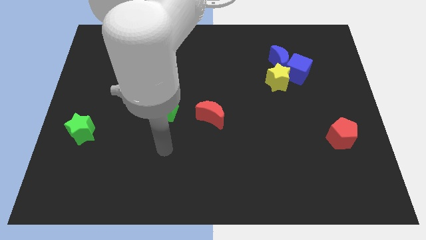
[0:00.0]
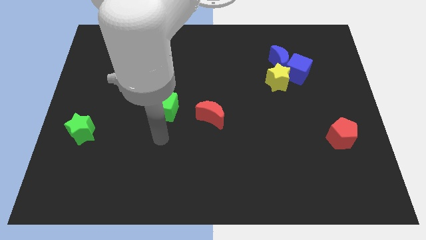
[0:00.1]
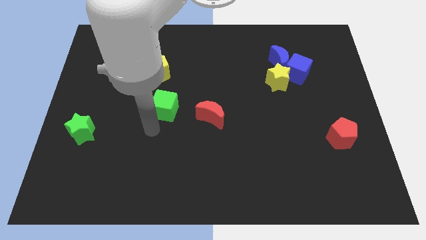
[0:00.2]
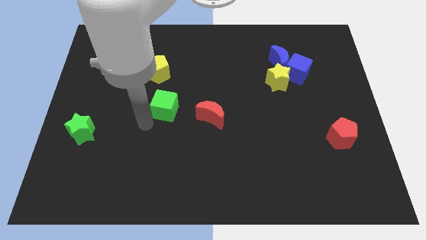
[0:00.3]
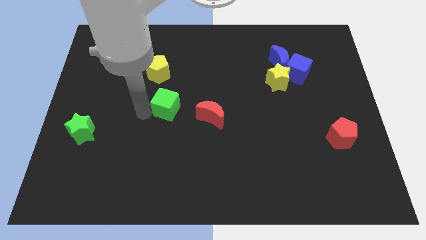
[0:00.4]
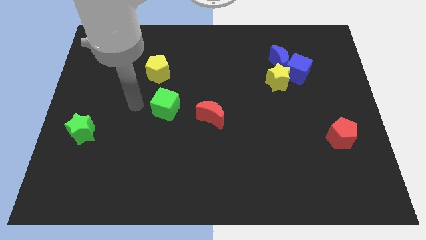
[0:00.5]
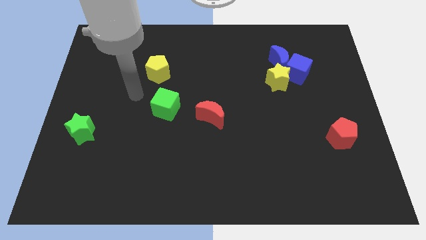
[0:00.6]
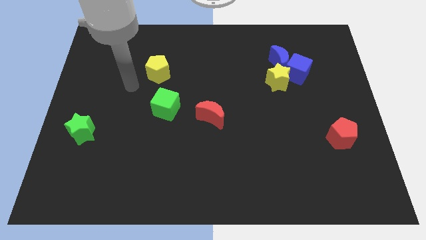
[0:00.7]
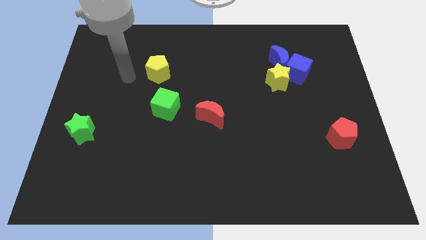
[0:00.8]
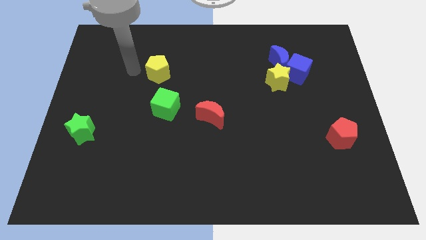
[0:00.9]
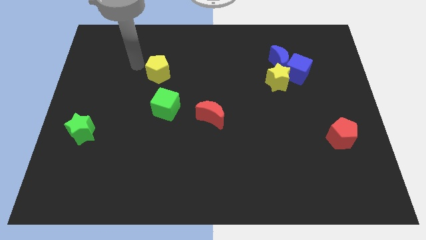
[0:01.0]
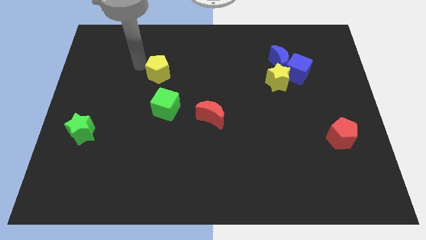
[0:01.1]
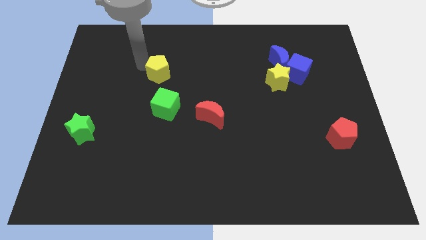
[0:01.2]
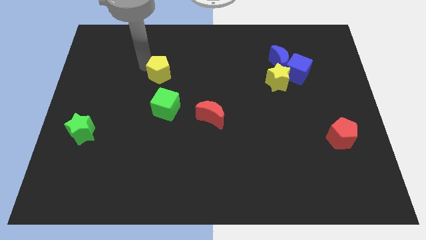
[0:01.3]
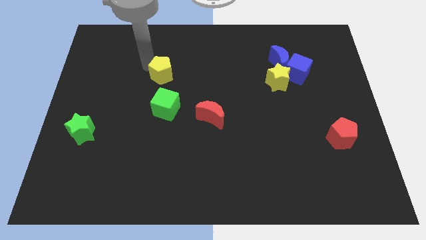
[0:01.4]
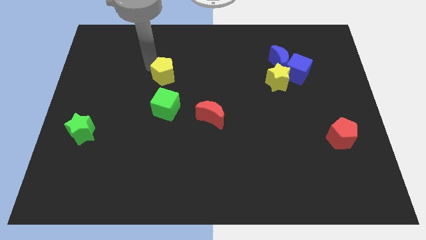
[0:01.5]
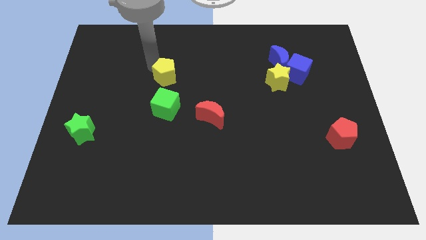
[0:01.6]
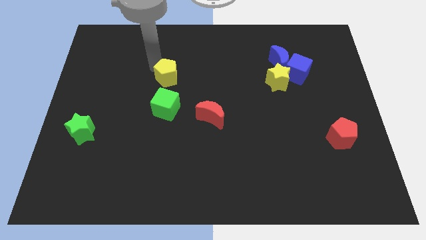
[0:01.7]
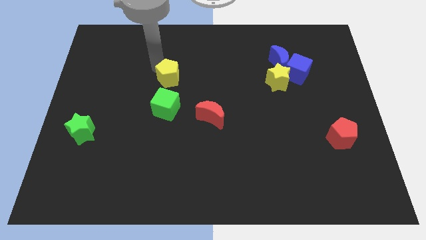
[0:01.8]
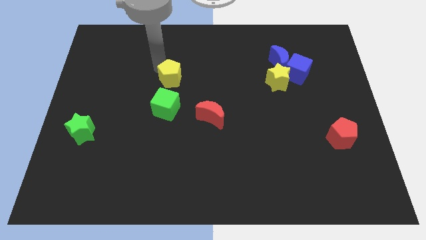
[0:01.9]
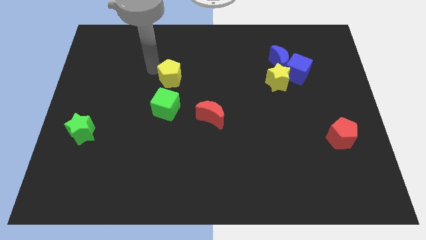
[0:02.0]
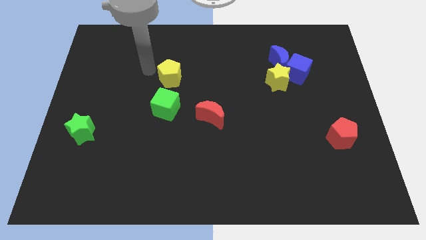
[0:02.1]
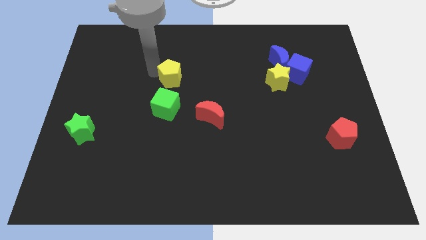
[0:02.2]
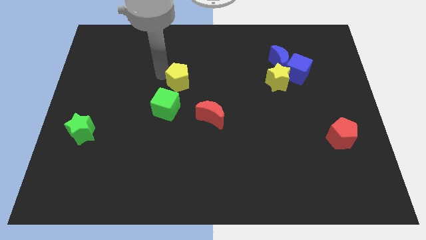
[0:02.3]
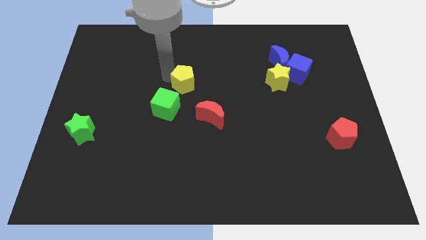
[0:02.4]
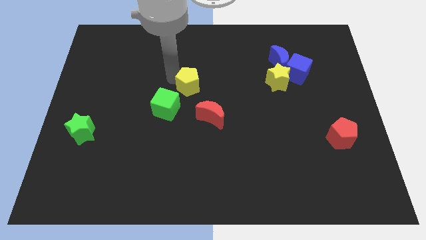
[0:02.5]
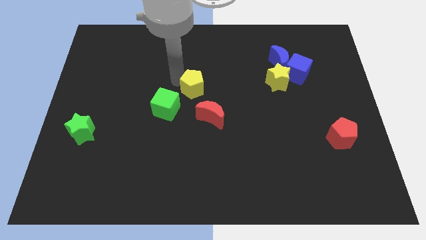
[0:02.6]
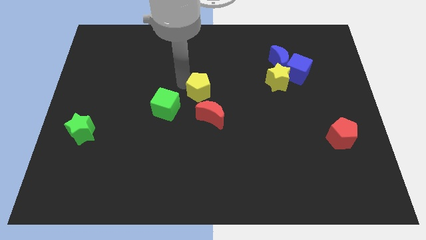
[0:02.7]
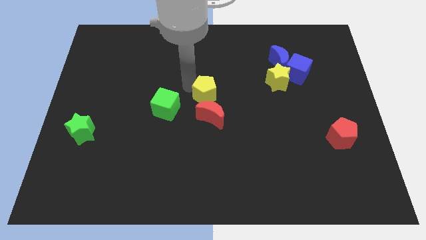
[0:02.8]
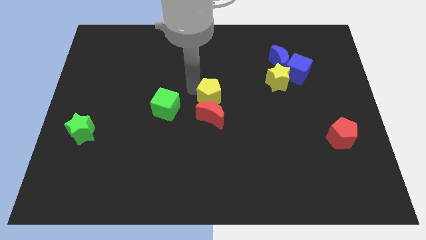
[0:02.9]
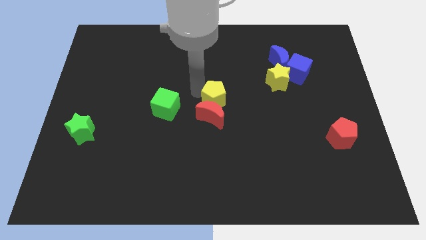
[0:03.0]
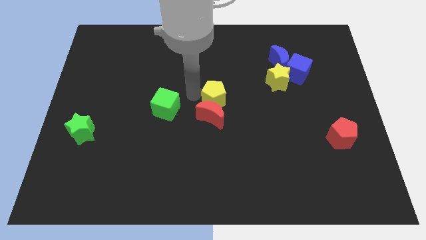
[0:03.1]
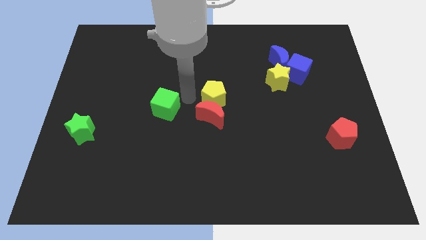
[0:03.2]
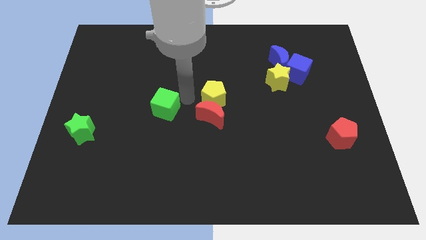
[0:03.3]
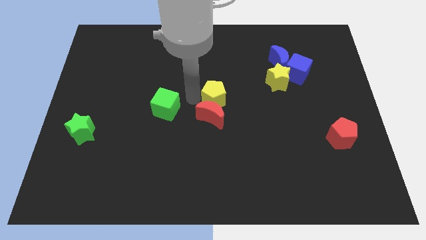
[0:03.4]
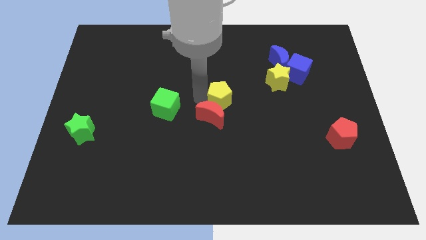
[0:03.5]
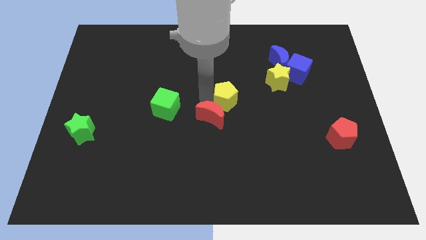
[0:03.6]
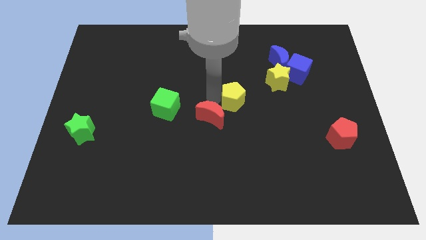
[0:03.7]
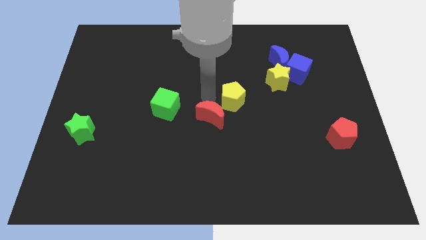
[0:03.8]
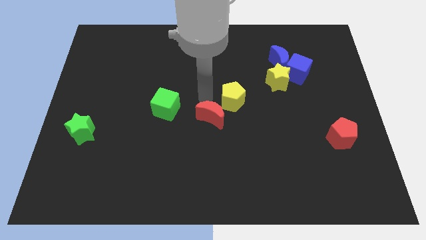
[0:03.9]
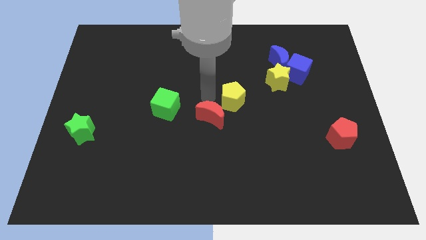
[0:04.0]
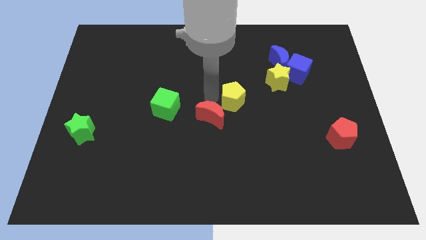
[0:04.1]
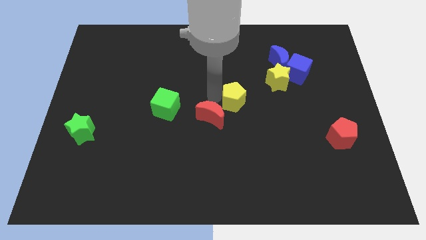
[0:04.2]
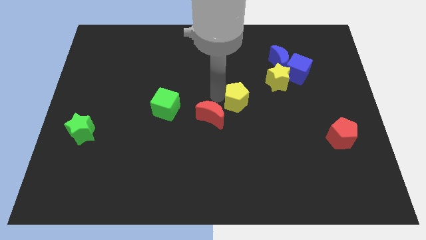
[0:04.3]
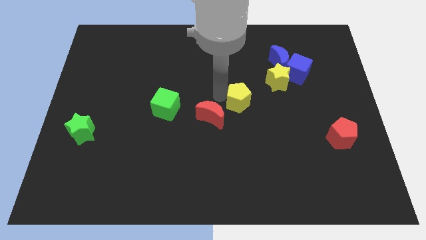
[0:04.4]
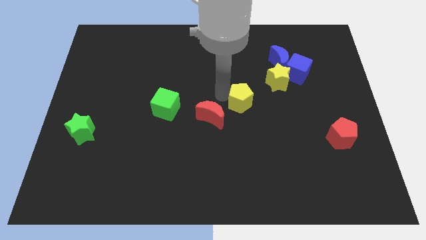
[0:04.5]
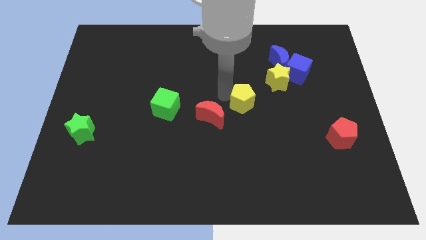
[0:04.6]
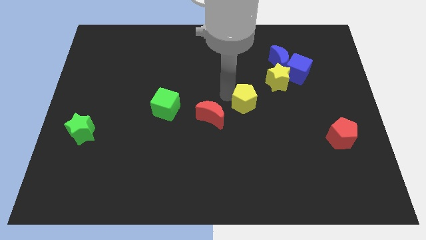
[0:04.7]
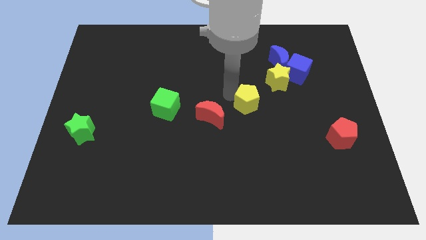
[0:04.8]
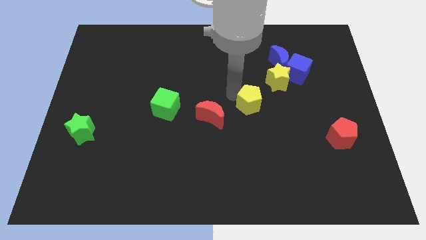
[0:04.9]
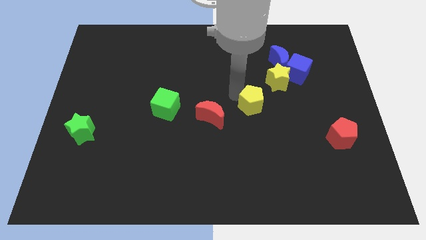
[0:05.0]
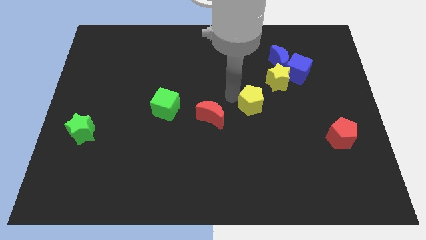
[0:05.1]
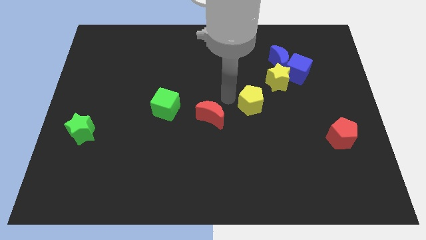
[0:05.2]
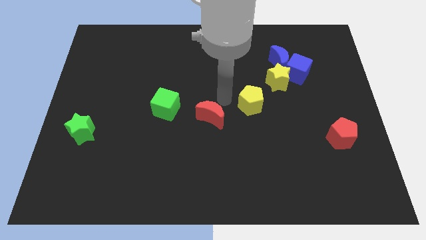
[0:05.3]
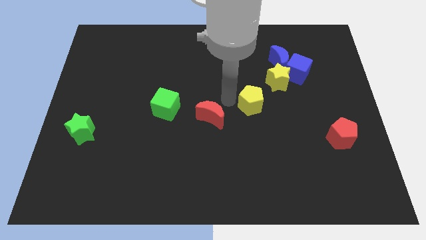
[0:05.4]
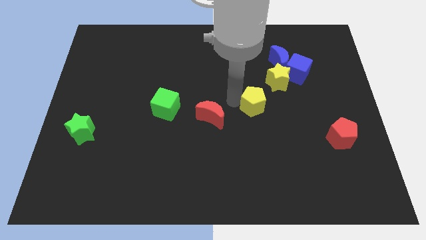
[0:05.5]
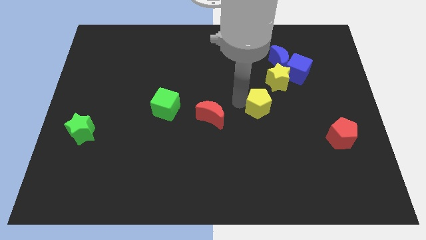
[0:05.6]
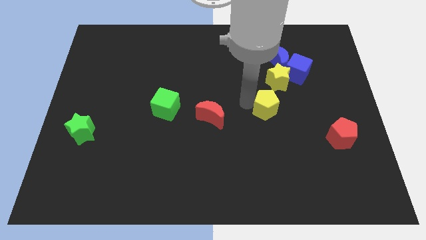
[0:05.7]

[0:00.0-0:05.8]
move the yellow pentagon to the bottom side of the yellow star

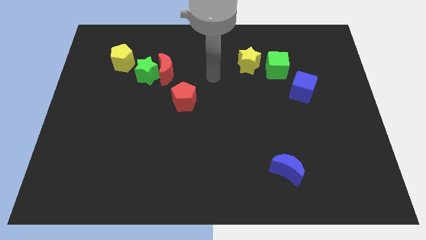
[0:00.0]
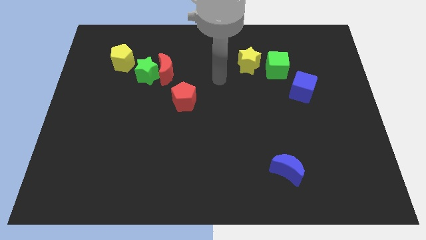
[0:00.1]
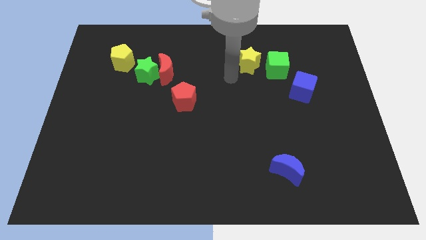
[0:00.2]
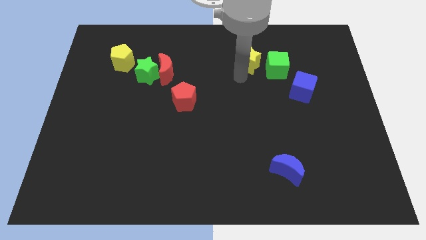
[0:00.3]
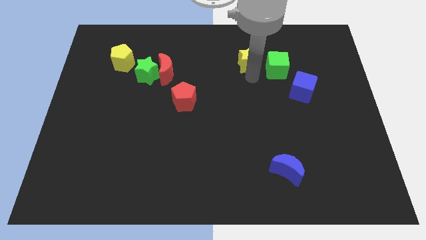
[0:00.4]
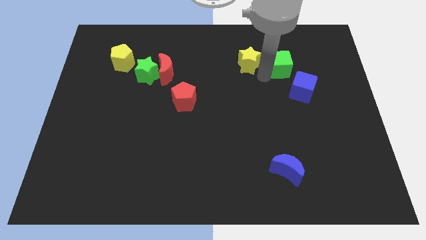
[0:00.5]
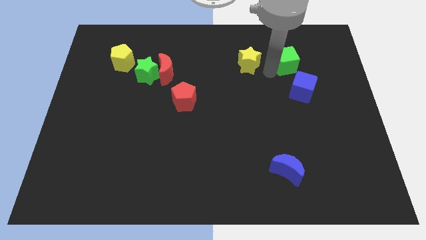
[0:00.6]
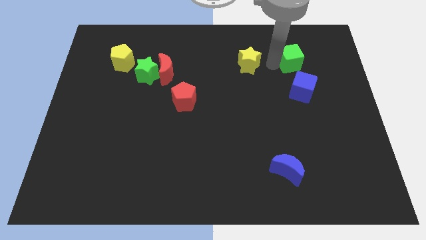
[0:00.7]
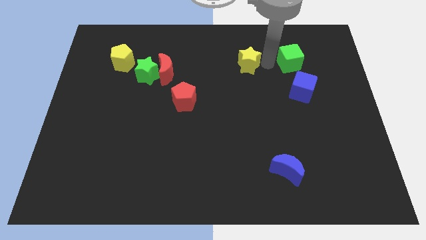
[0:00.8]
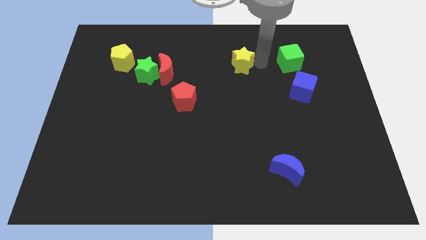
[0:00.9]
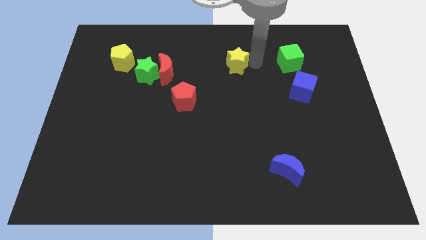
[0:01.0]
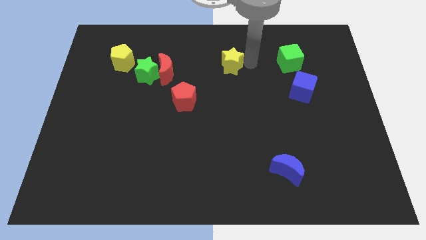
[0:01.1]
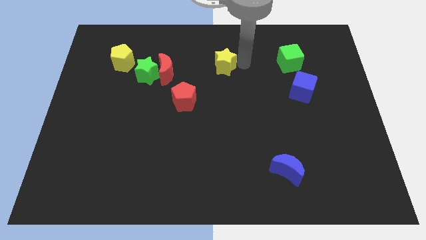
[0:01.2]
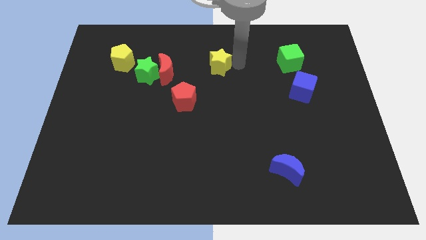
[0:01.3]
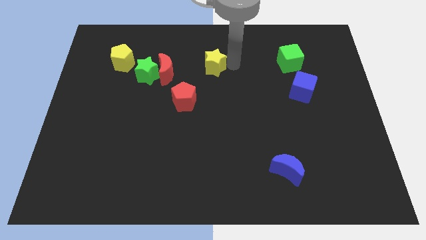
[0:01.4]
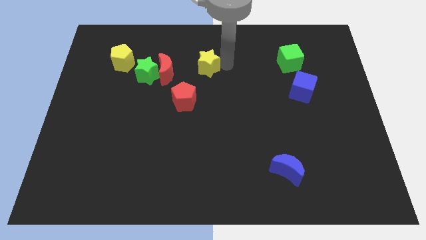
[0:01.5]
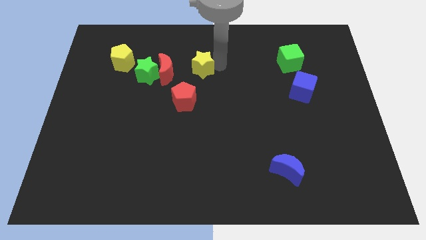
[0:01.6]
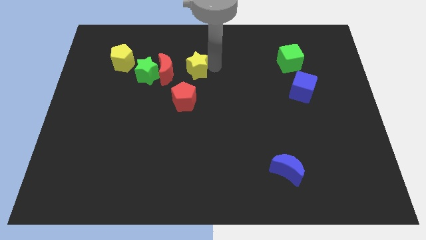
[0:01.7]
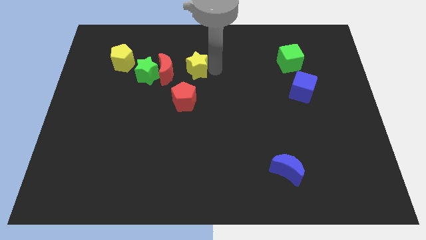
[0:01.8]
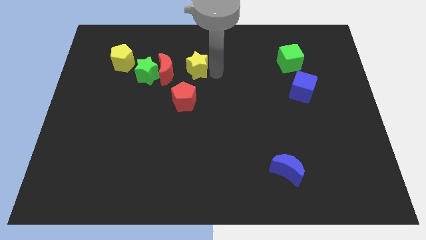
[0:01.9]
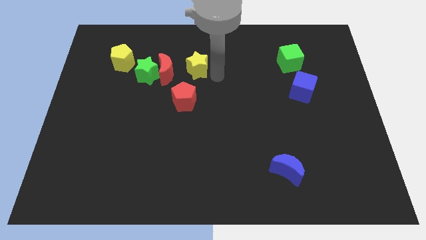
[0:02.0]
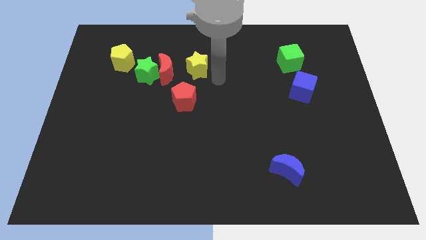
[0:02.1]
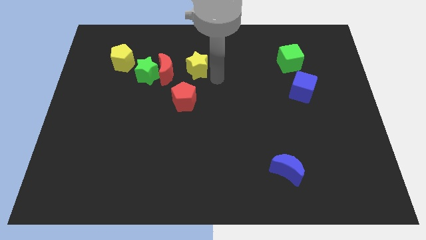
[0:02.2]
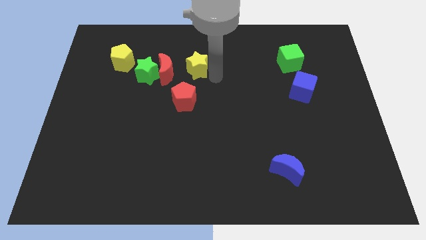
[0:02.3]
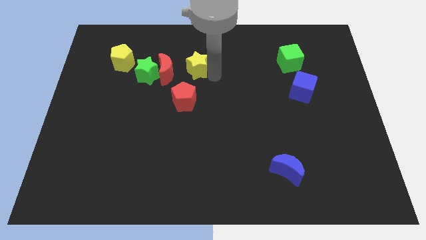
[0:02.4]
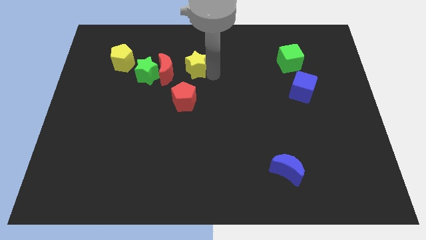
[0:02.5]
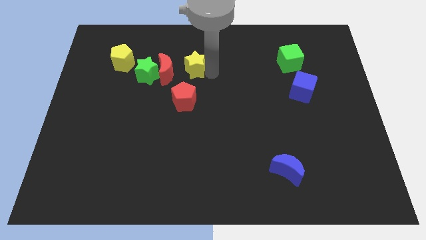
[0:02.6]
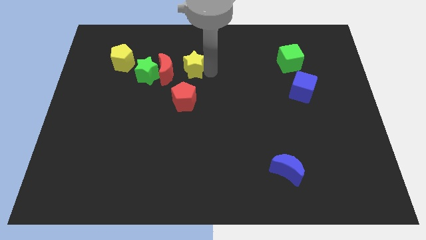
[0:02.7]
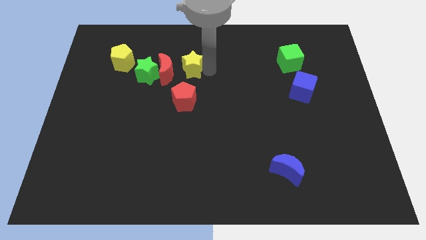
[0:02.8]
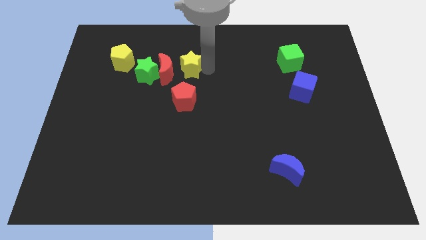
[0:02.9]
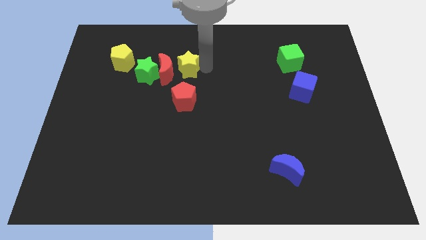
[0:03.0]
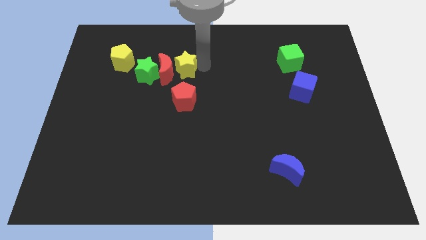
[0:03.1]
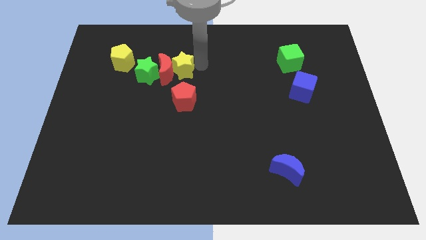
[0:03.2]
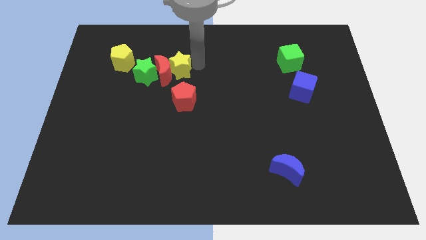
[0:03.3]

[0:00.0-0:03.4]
move the yellow star to the top right side of the green star
